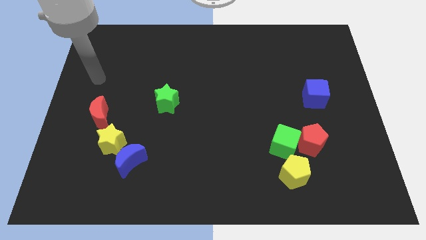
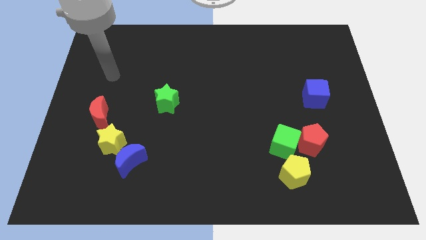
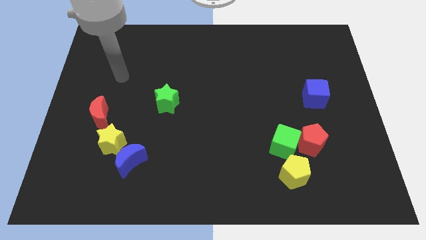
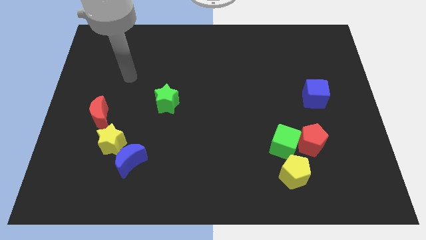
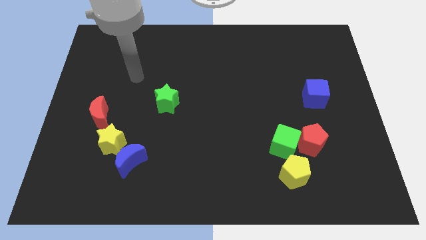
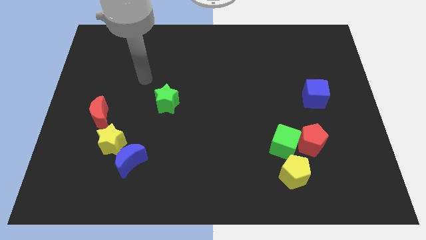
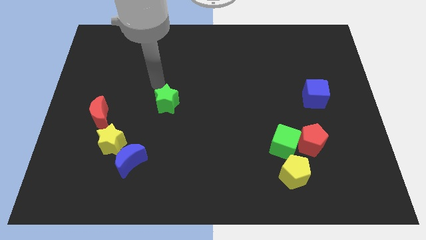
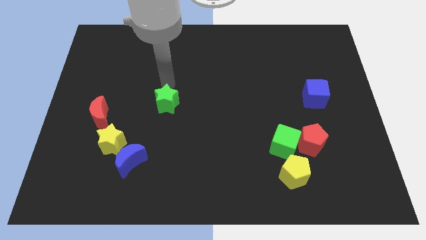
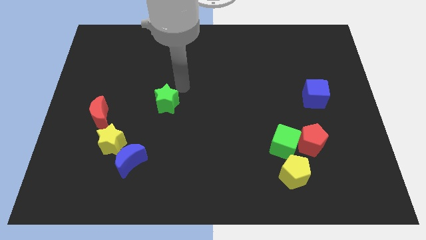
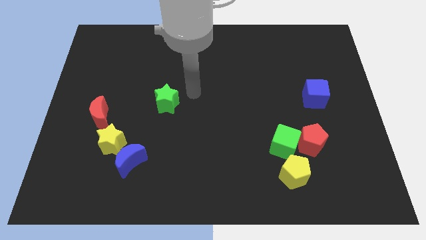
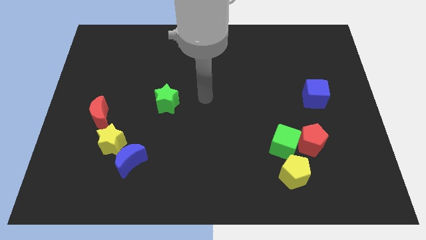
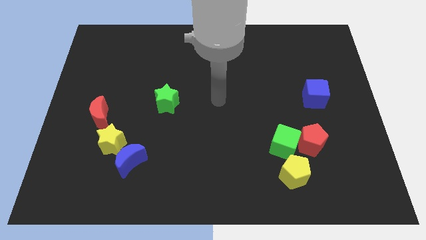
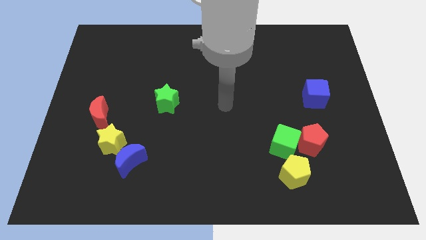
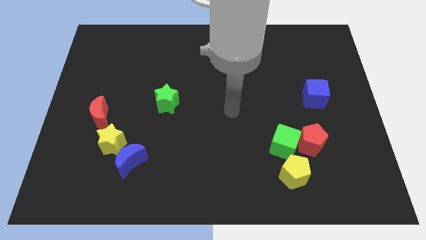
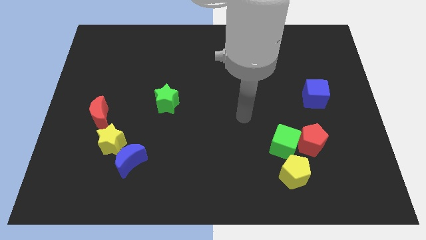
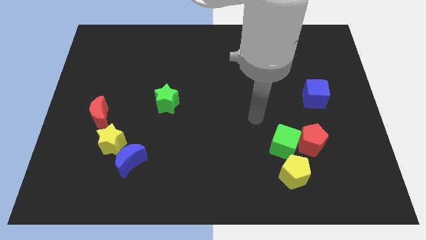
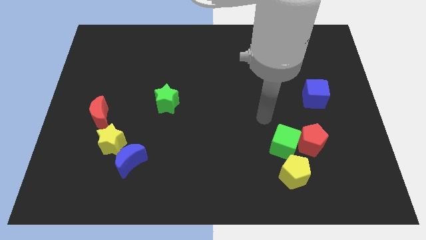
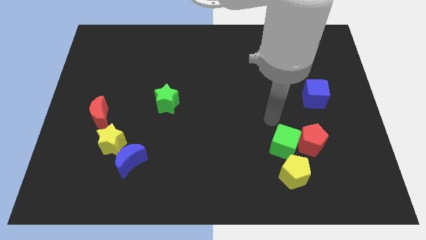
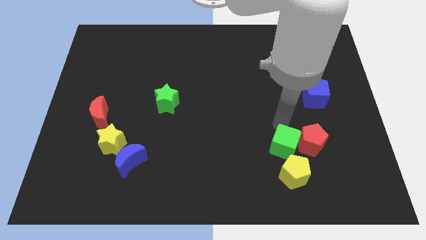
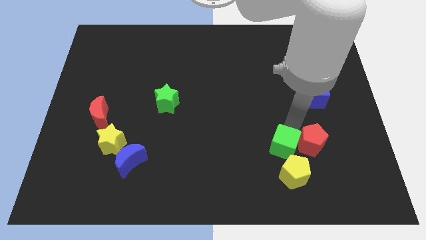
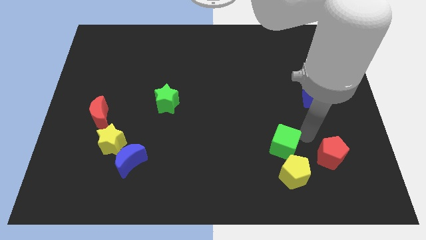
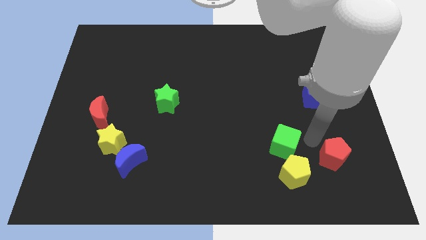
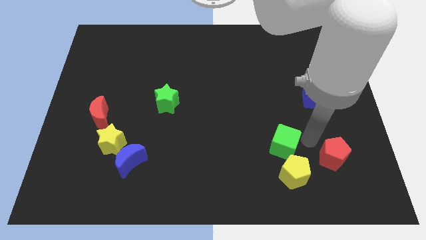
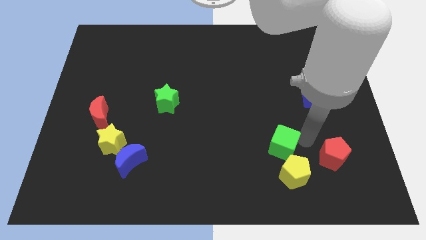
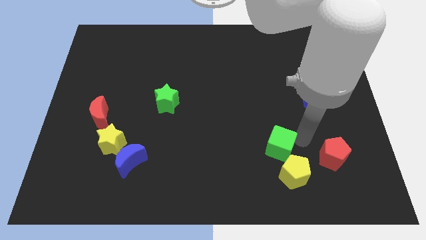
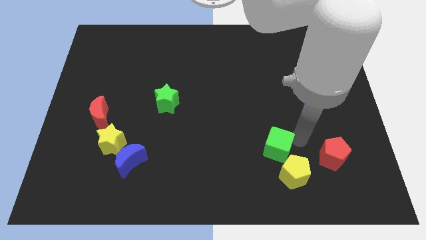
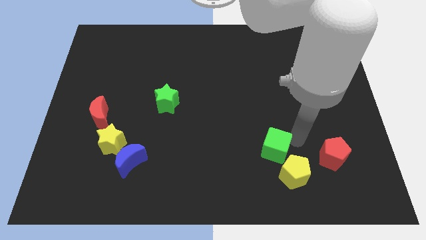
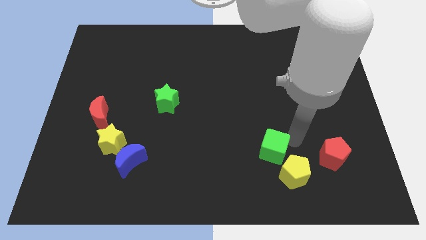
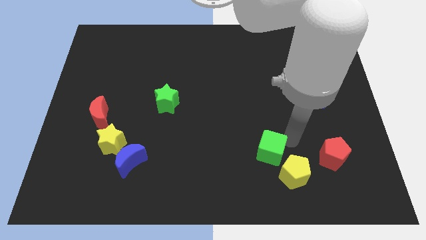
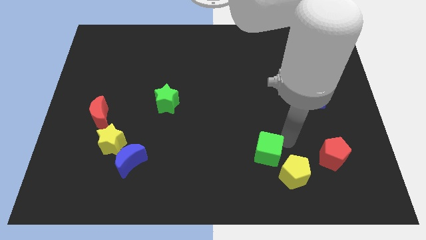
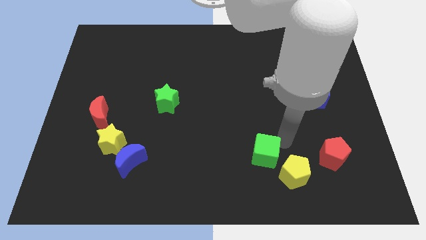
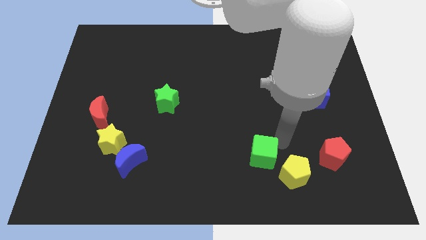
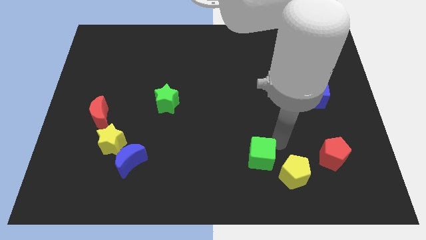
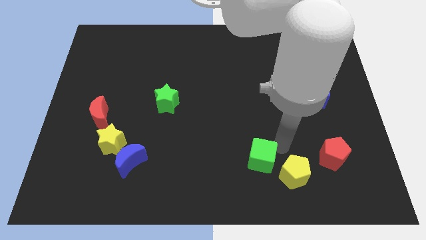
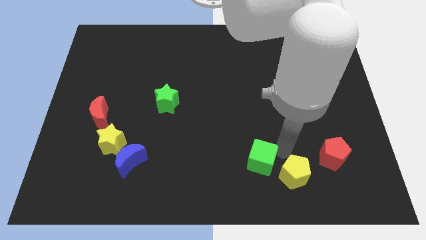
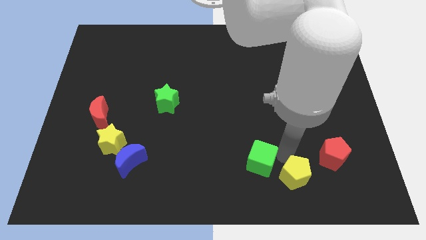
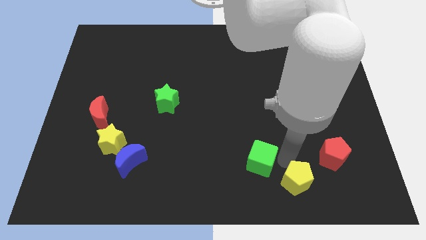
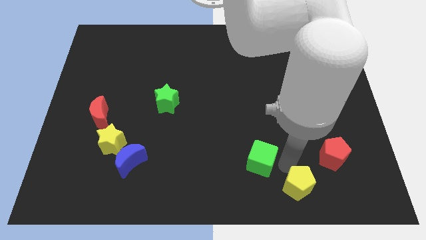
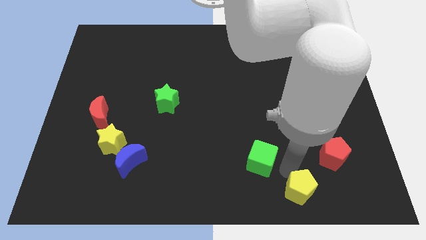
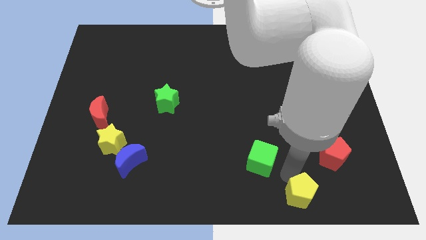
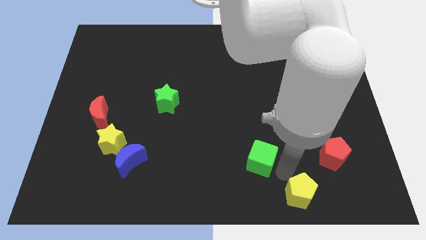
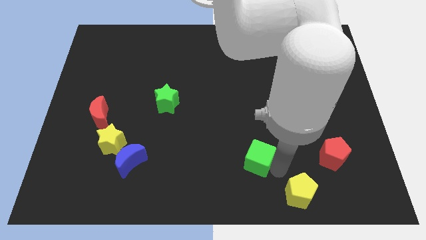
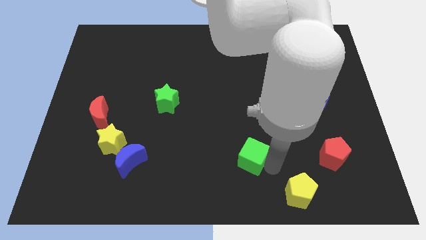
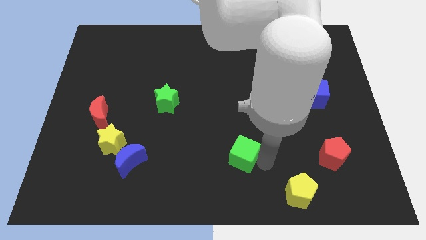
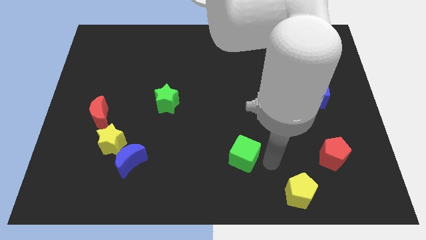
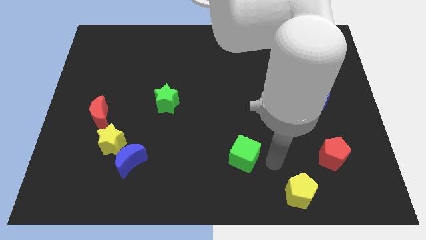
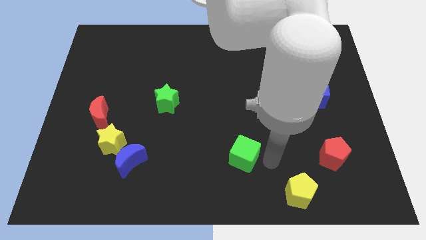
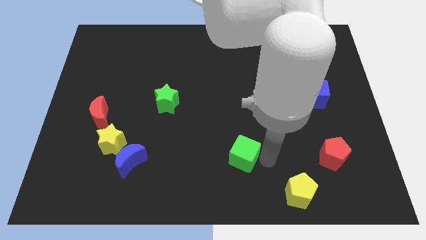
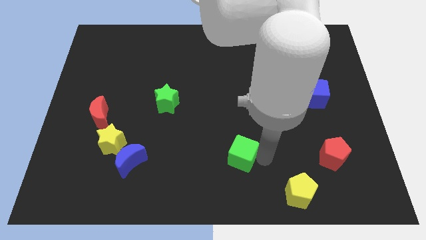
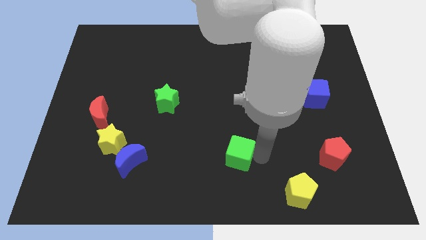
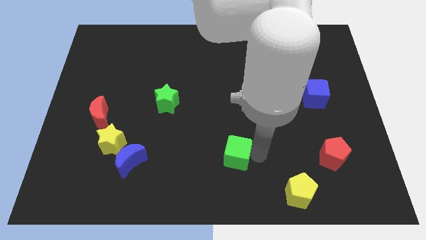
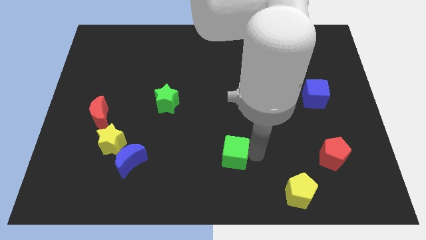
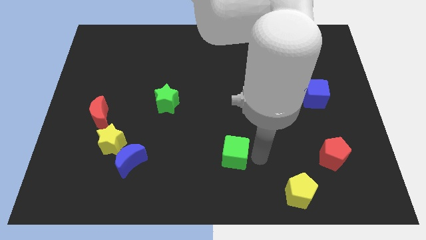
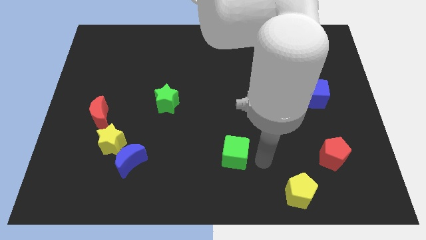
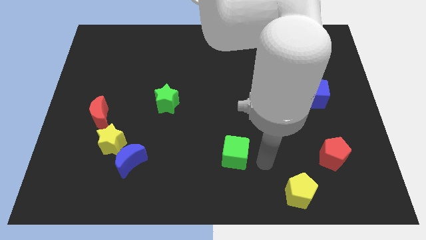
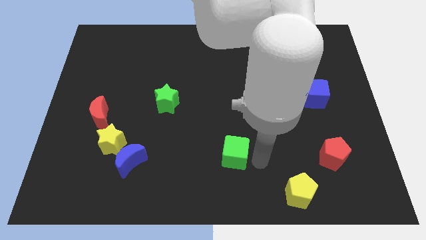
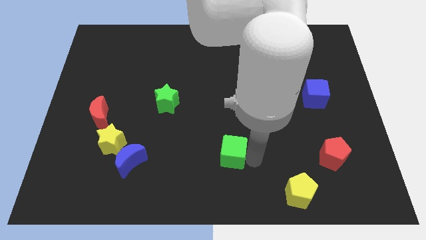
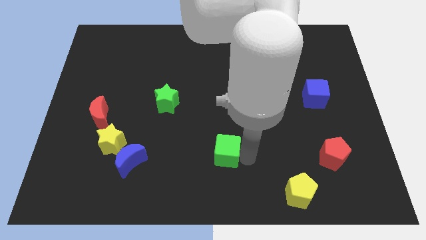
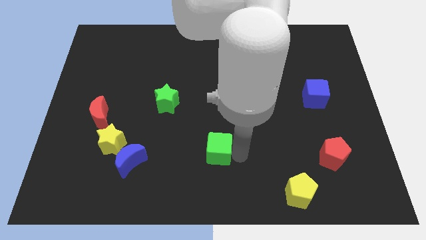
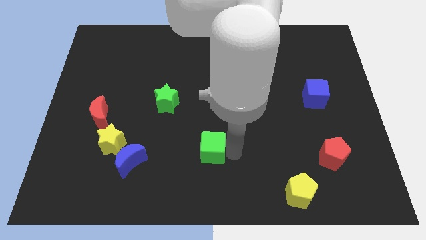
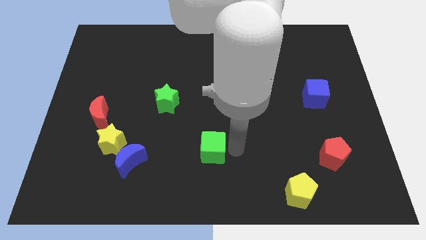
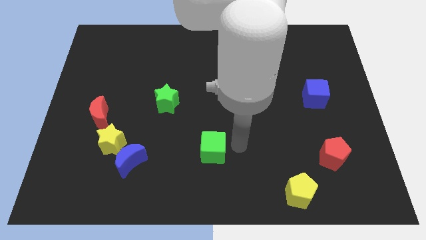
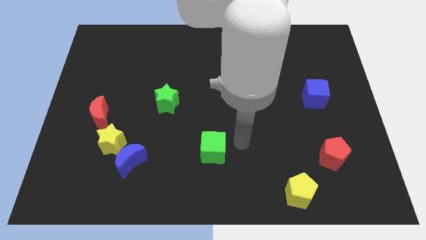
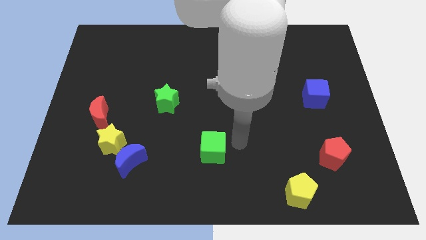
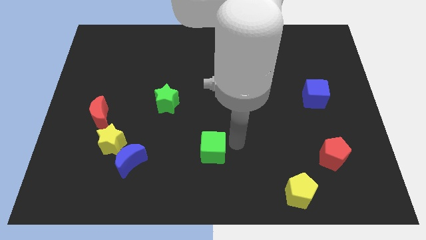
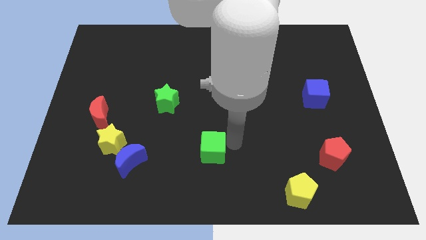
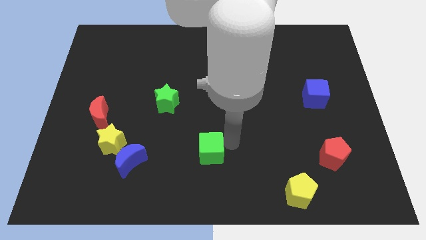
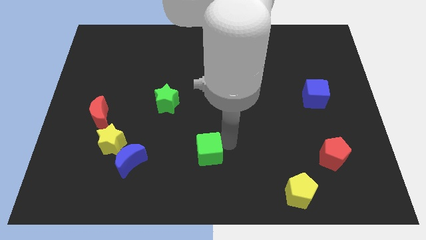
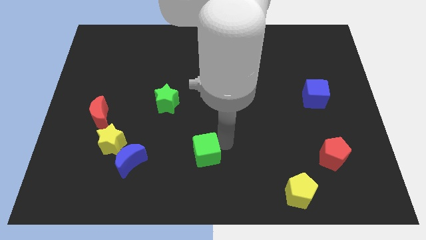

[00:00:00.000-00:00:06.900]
put the green cube just right of the blue moon

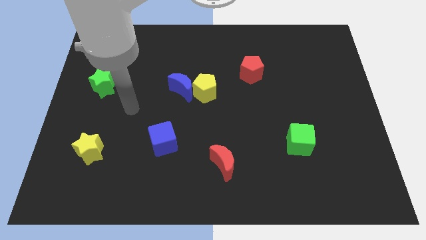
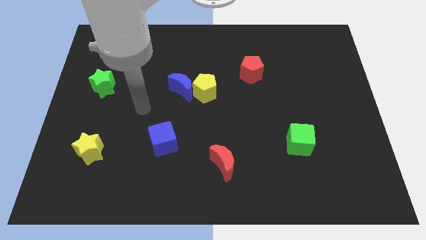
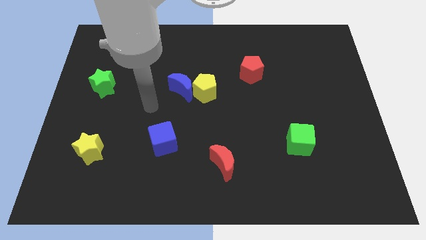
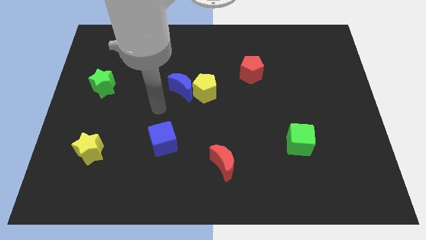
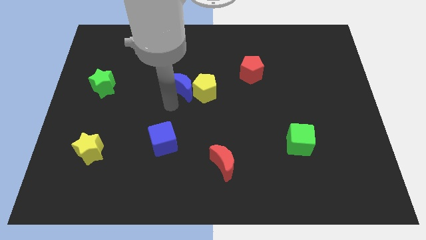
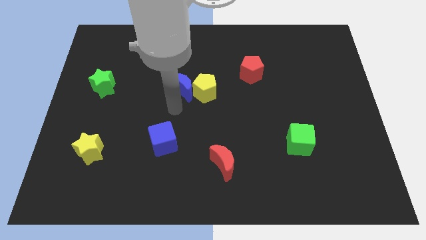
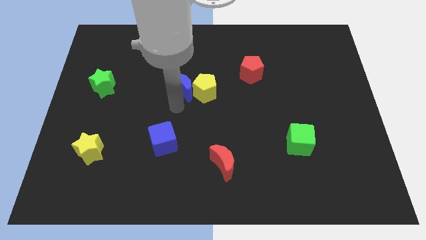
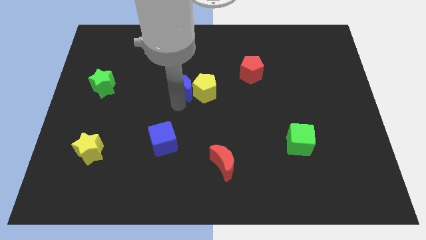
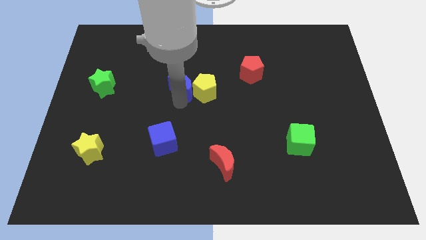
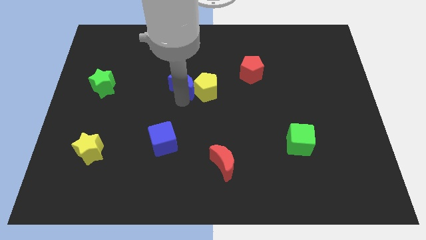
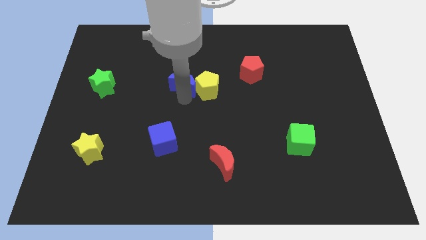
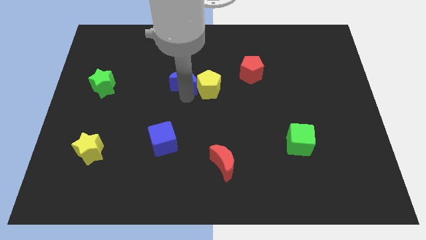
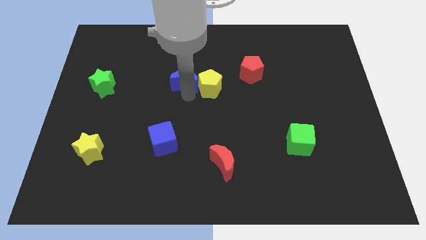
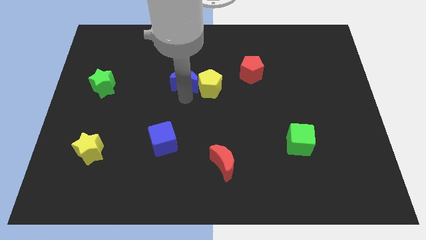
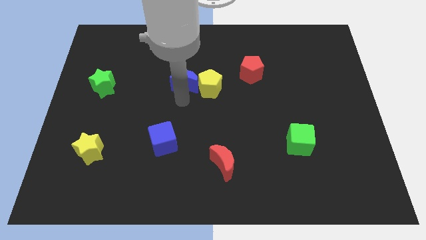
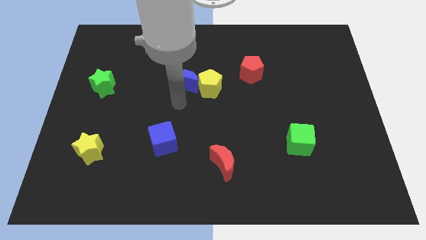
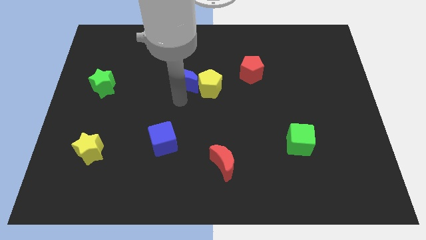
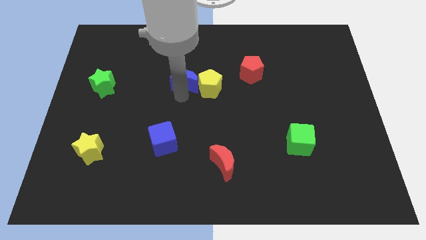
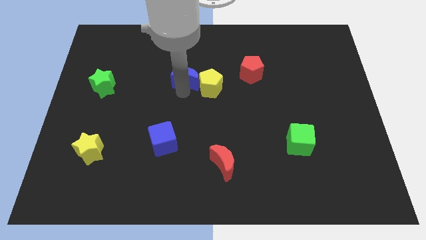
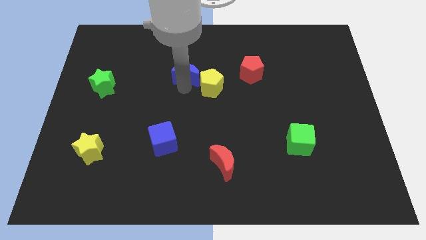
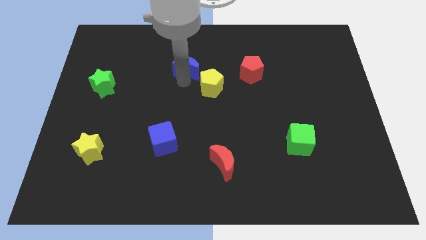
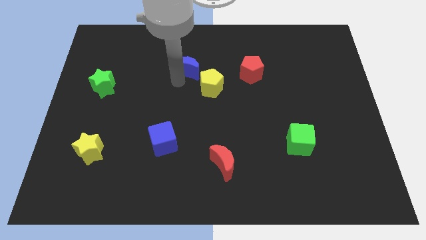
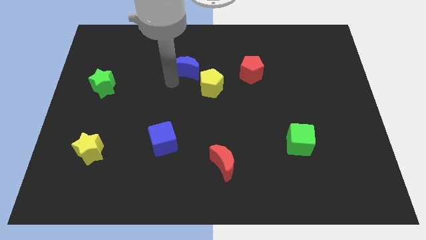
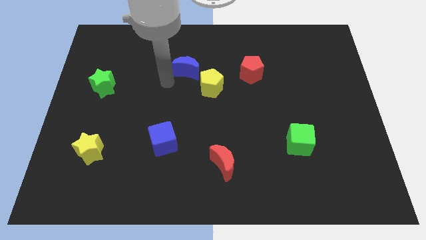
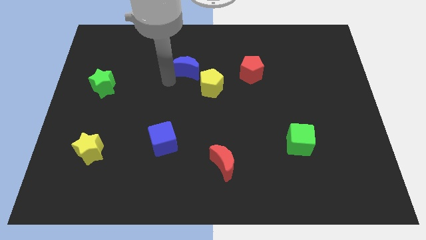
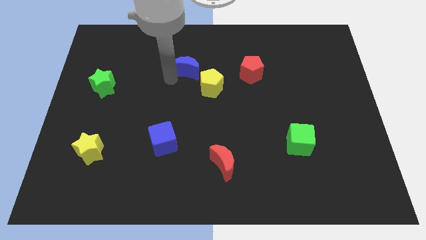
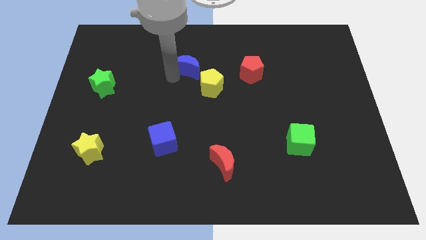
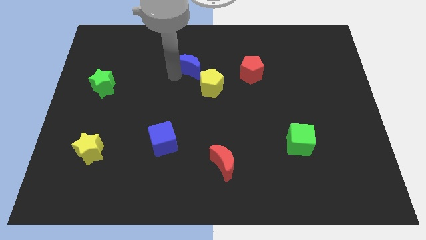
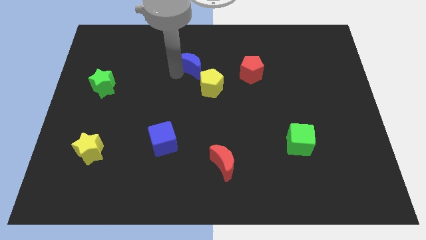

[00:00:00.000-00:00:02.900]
push the blue moon to the top of the yellow pentagon
